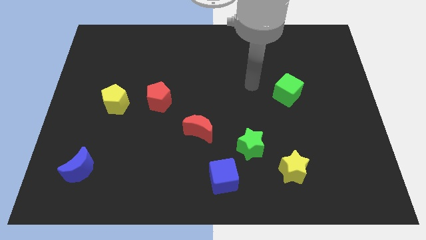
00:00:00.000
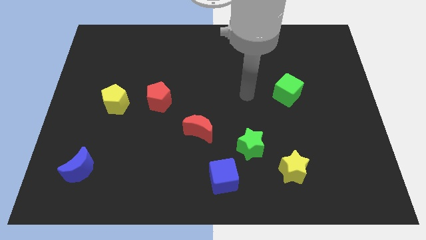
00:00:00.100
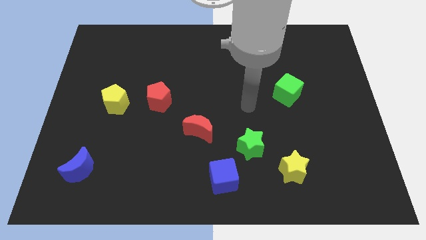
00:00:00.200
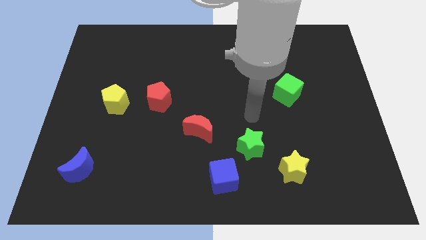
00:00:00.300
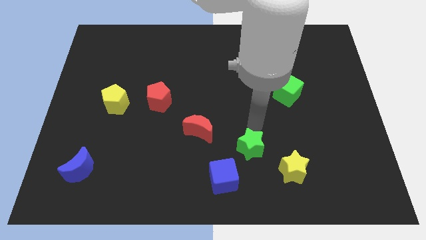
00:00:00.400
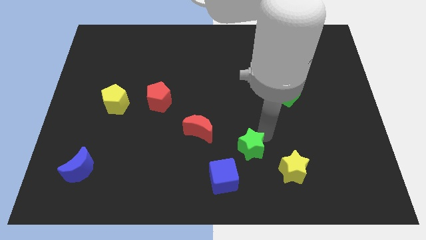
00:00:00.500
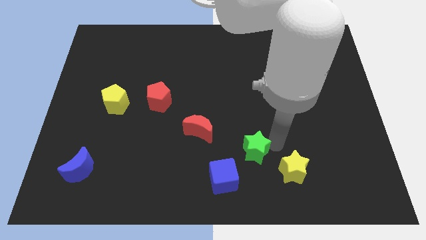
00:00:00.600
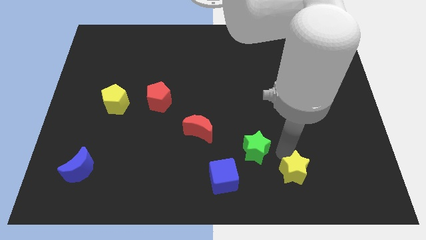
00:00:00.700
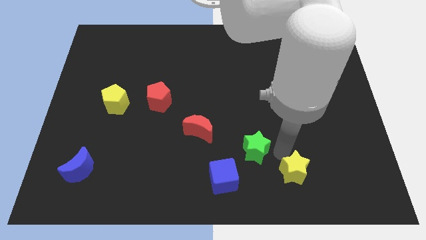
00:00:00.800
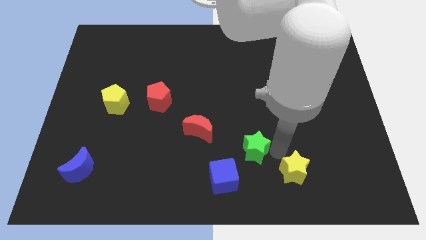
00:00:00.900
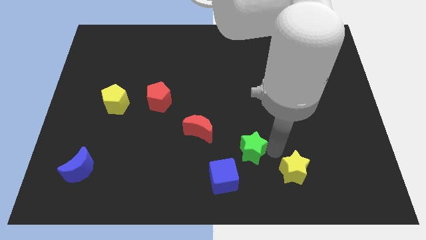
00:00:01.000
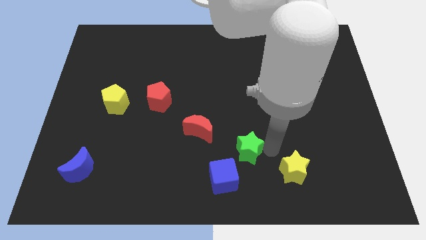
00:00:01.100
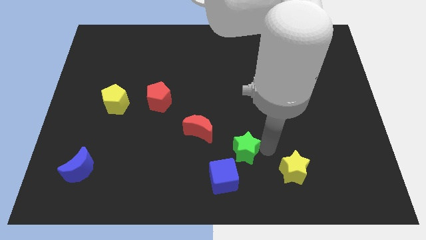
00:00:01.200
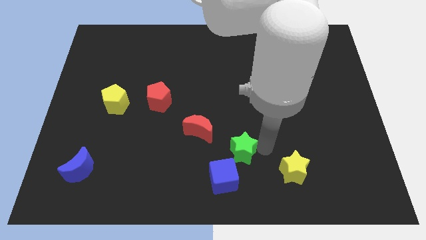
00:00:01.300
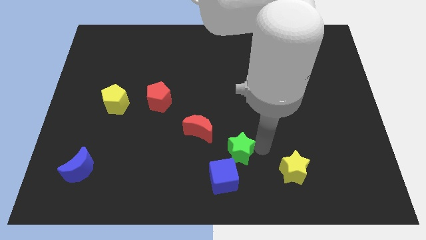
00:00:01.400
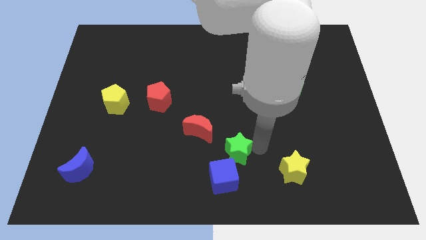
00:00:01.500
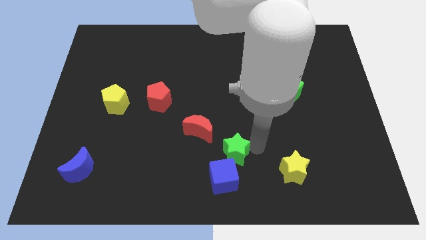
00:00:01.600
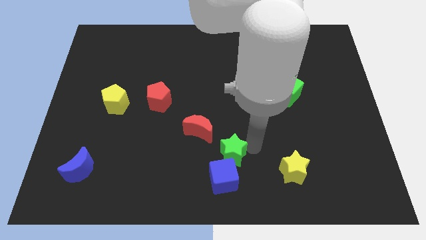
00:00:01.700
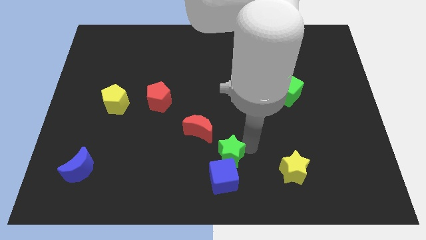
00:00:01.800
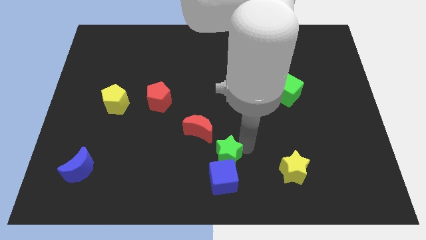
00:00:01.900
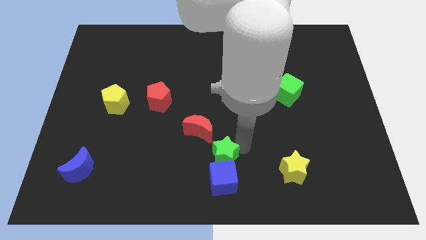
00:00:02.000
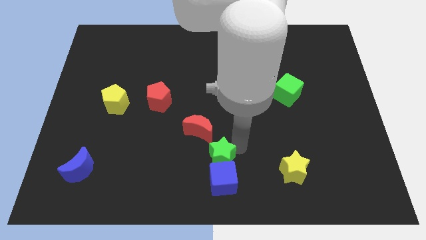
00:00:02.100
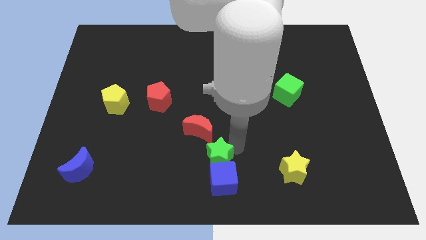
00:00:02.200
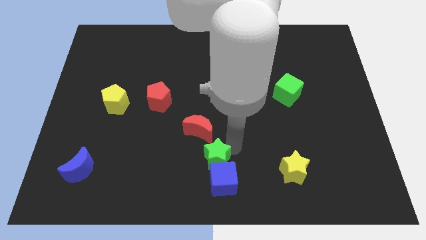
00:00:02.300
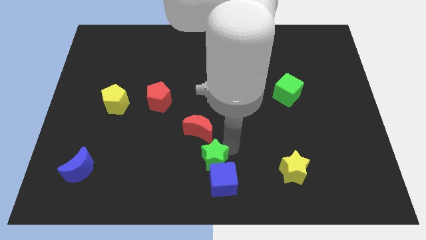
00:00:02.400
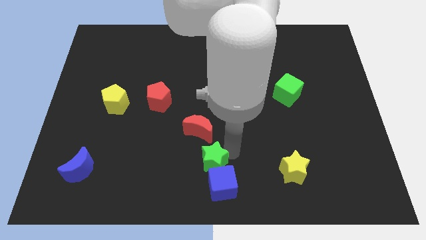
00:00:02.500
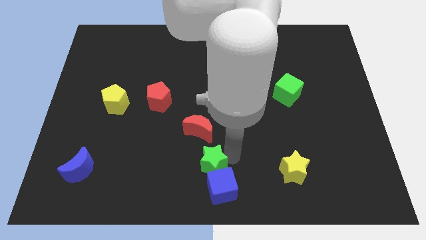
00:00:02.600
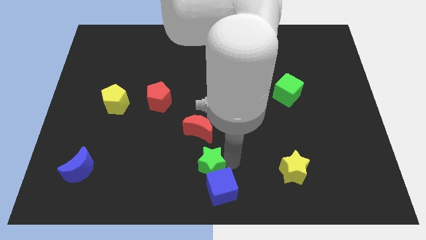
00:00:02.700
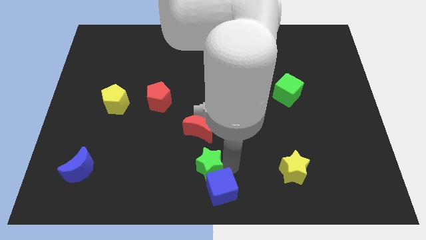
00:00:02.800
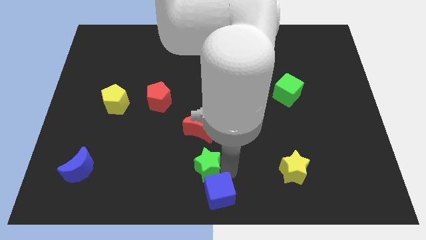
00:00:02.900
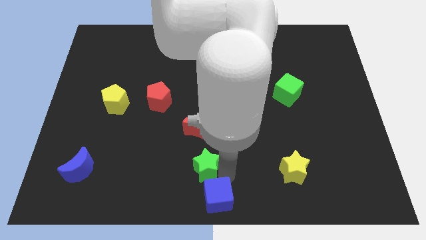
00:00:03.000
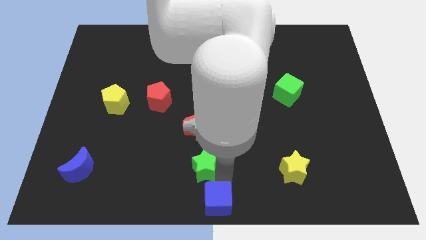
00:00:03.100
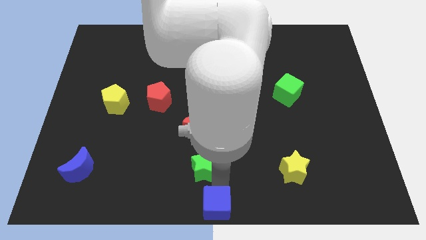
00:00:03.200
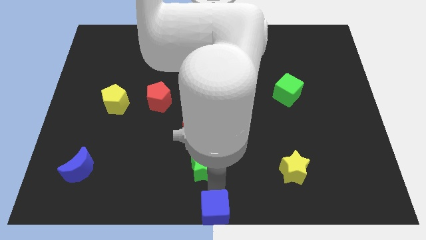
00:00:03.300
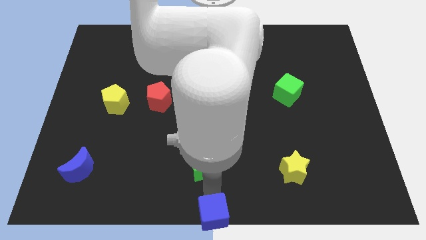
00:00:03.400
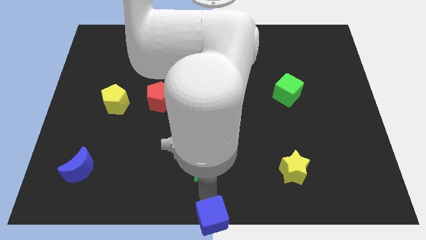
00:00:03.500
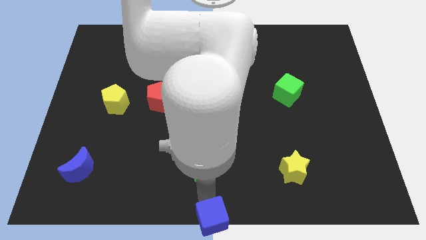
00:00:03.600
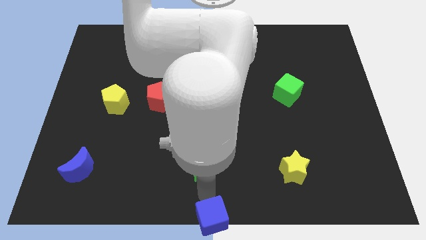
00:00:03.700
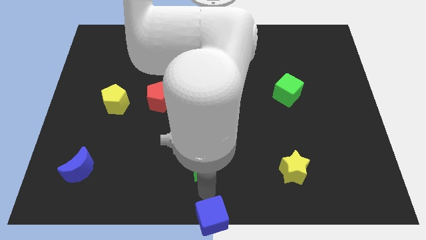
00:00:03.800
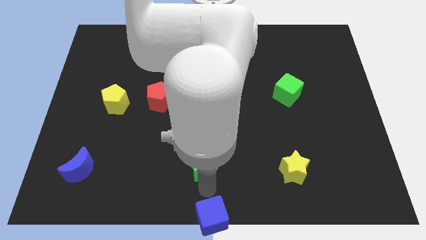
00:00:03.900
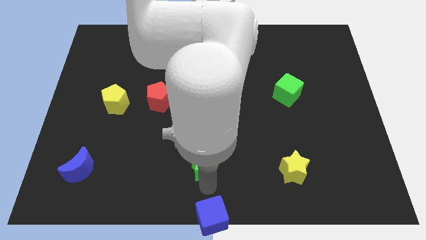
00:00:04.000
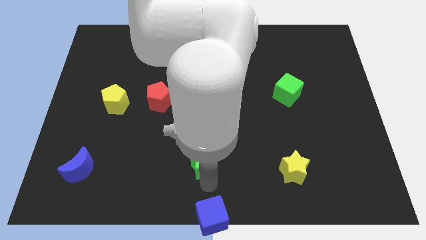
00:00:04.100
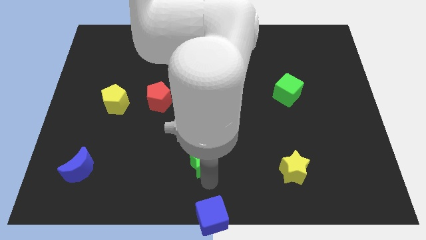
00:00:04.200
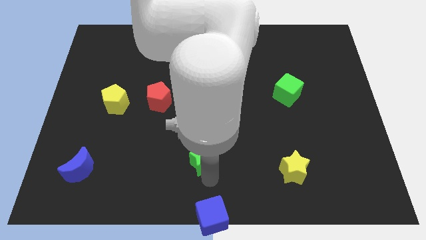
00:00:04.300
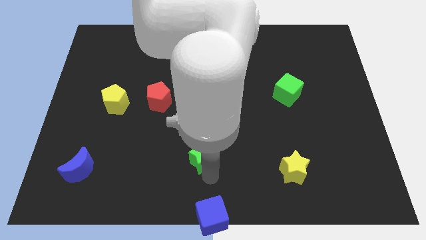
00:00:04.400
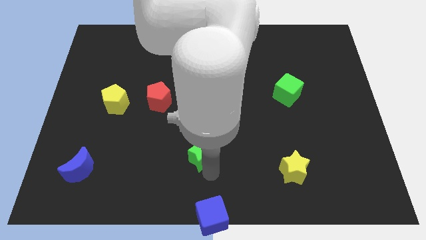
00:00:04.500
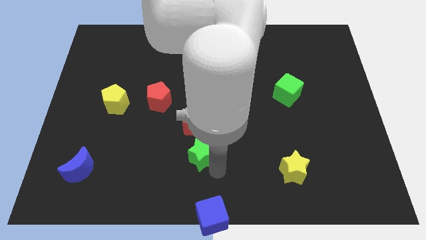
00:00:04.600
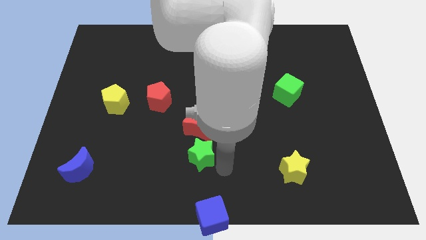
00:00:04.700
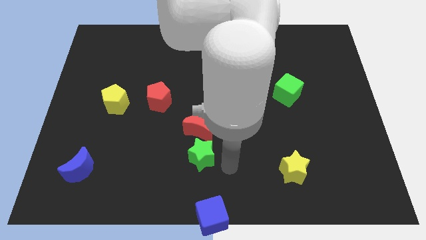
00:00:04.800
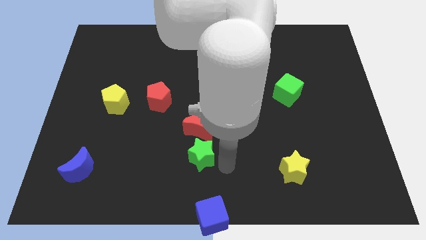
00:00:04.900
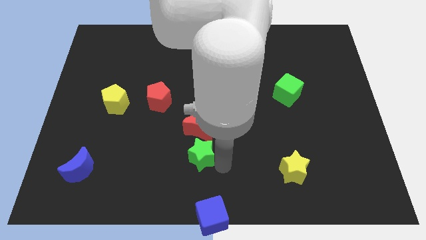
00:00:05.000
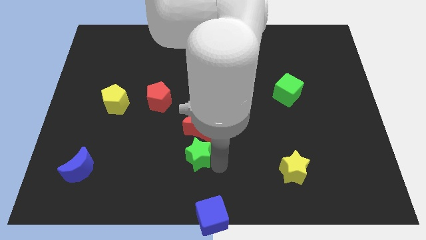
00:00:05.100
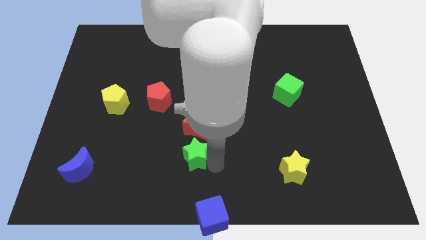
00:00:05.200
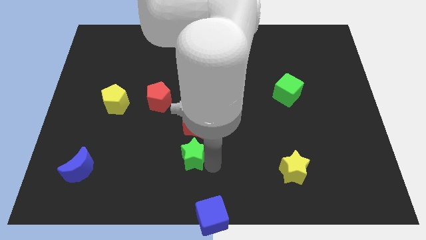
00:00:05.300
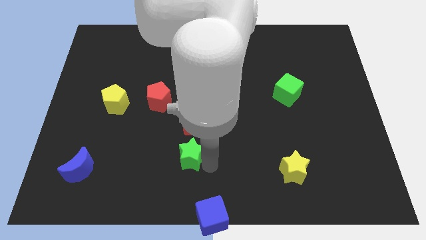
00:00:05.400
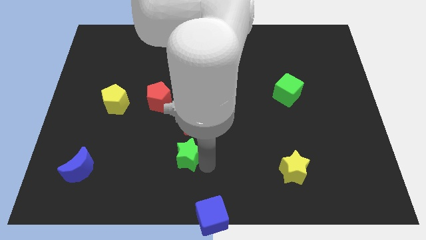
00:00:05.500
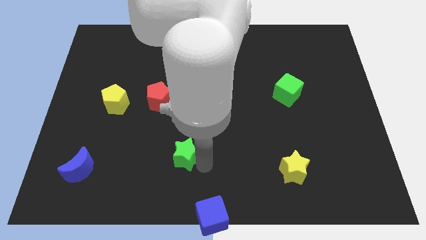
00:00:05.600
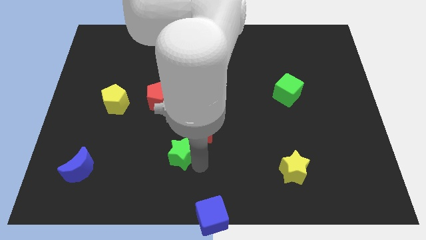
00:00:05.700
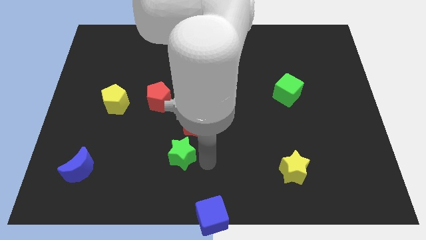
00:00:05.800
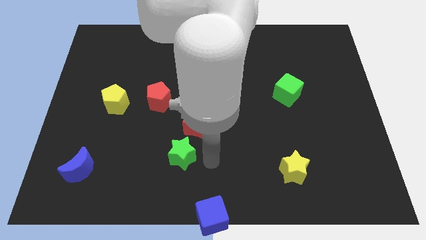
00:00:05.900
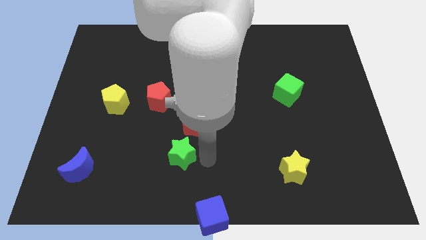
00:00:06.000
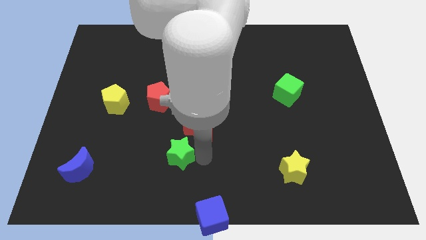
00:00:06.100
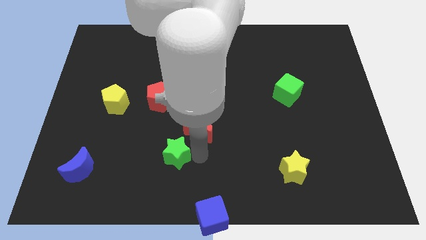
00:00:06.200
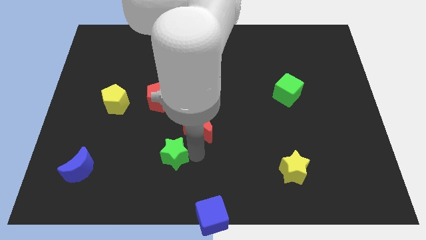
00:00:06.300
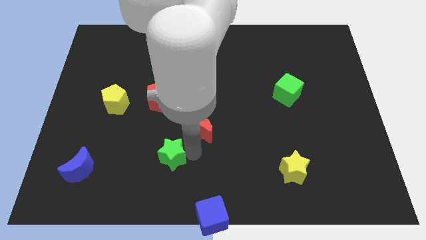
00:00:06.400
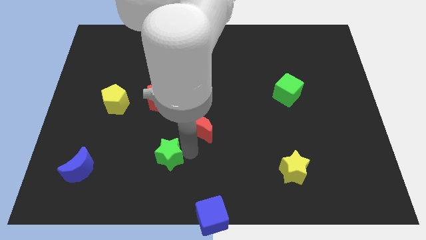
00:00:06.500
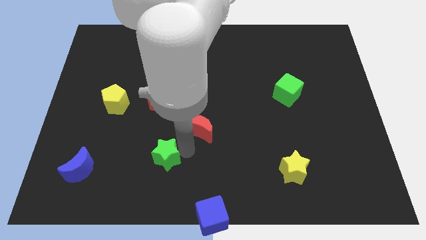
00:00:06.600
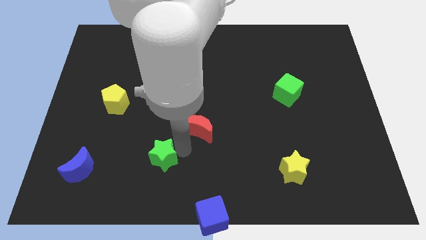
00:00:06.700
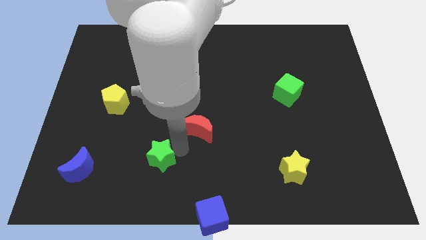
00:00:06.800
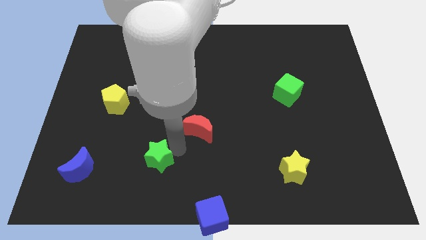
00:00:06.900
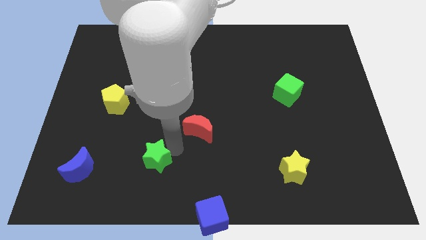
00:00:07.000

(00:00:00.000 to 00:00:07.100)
slide the green star left

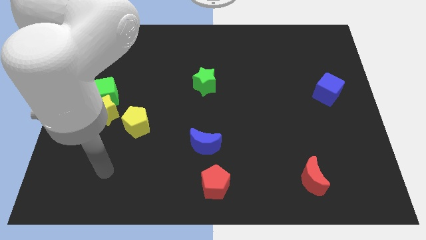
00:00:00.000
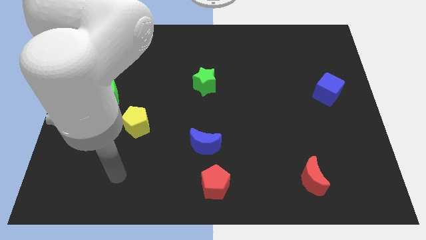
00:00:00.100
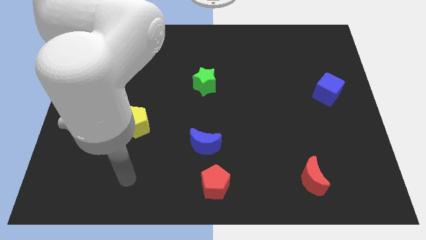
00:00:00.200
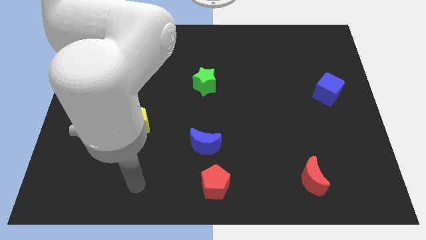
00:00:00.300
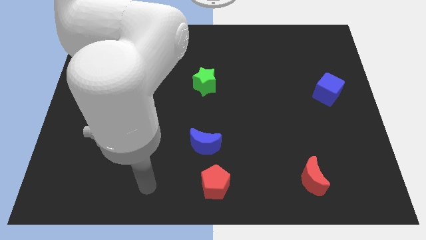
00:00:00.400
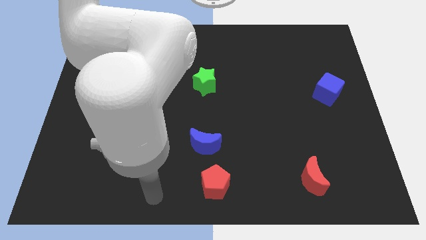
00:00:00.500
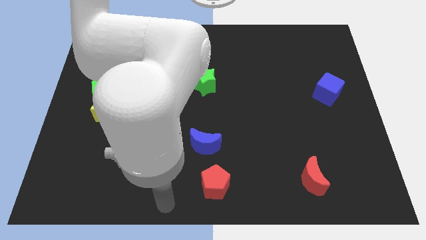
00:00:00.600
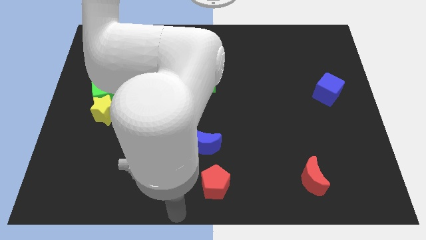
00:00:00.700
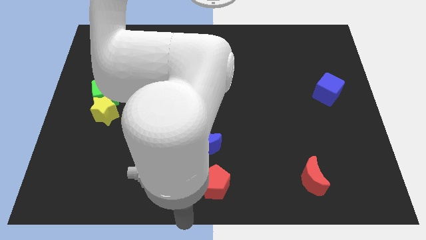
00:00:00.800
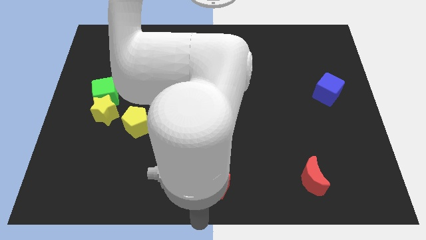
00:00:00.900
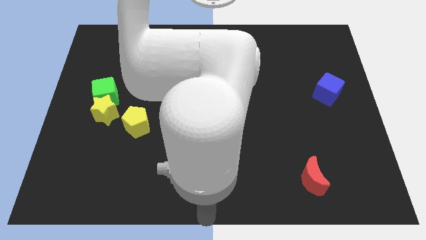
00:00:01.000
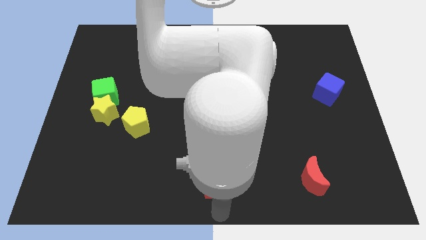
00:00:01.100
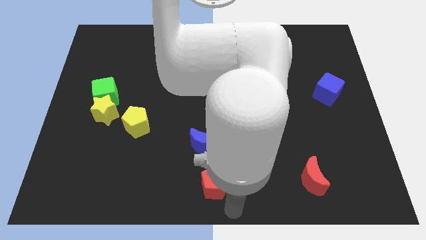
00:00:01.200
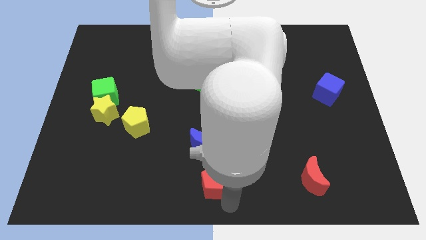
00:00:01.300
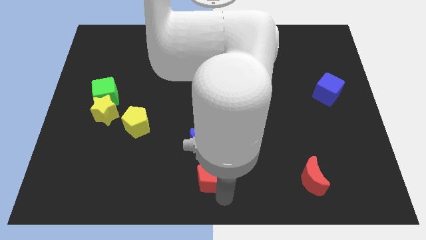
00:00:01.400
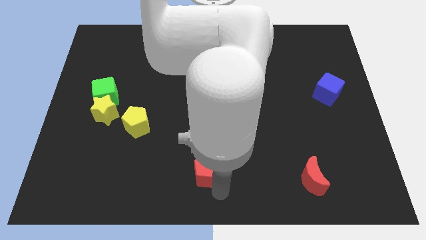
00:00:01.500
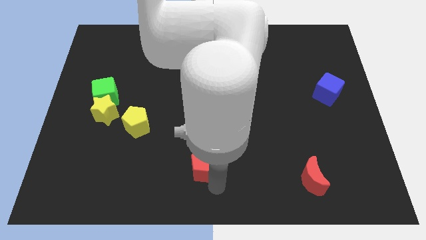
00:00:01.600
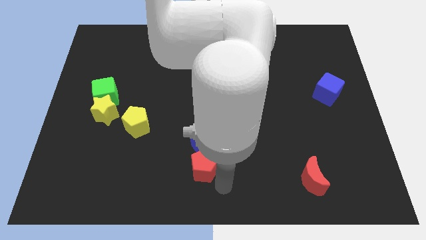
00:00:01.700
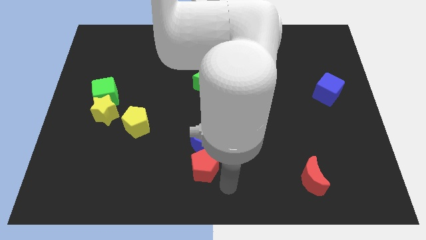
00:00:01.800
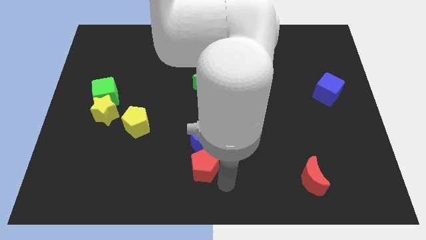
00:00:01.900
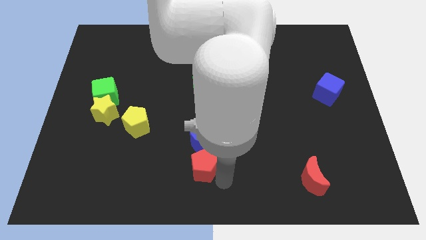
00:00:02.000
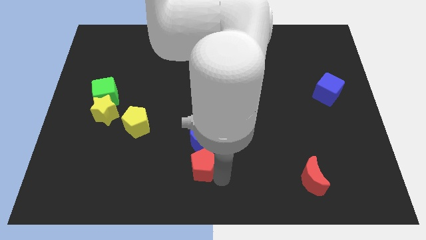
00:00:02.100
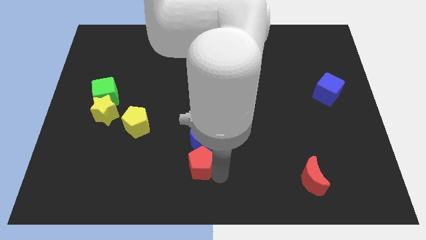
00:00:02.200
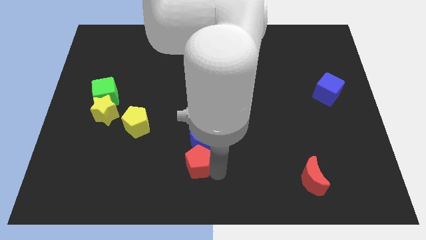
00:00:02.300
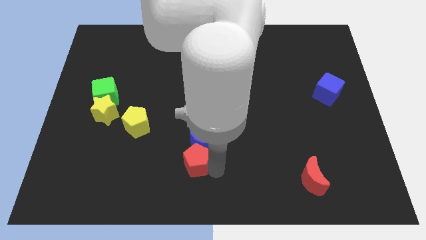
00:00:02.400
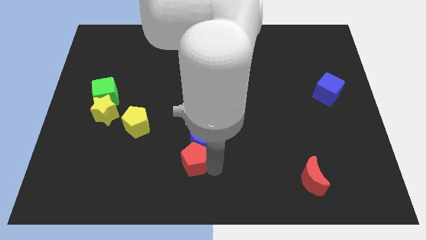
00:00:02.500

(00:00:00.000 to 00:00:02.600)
slightly slide the red pentagon upwards and left
